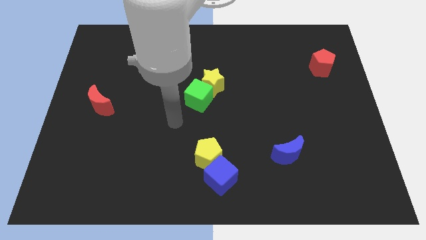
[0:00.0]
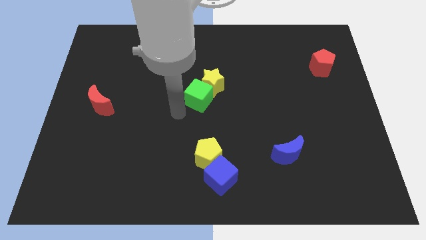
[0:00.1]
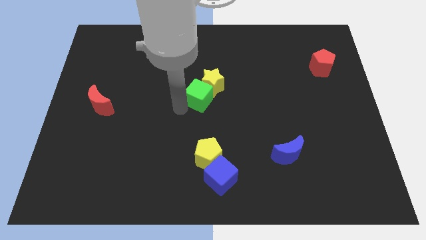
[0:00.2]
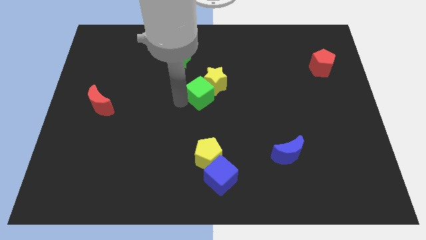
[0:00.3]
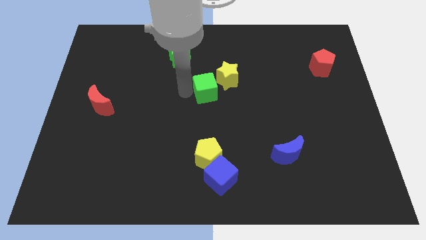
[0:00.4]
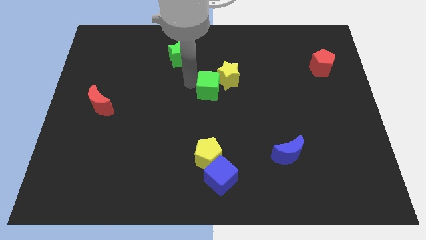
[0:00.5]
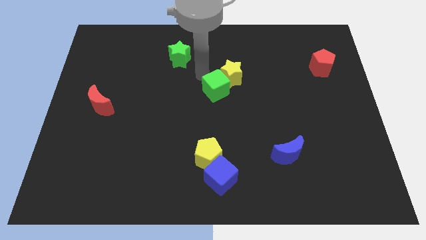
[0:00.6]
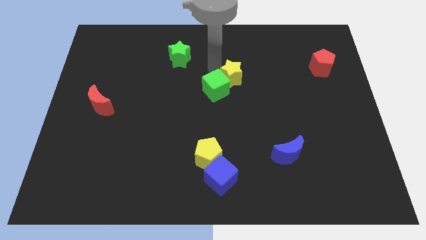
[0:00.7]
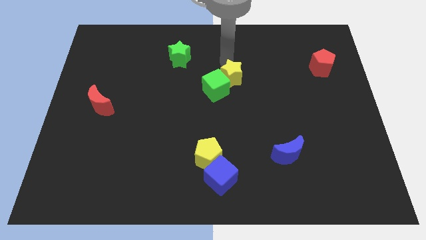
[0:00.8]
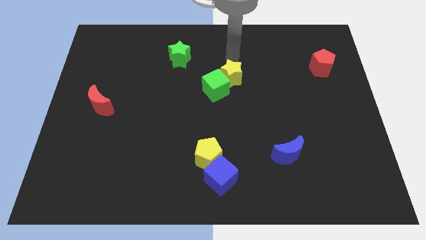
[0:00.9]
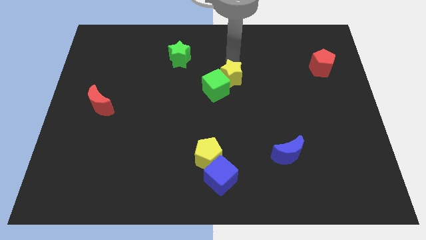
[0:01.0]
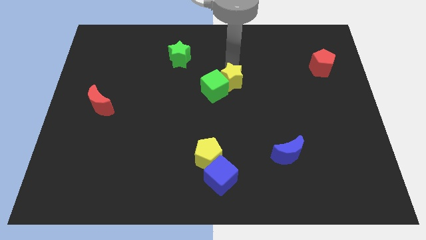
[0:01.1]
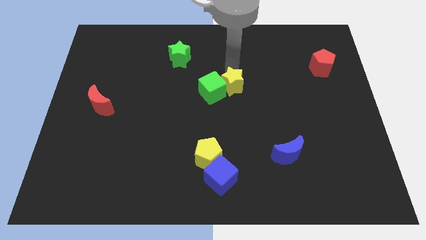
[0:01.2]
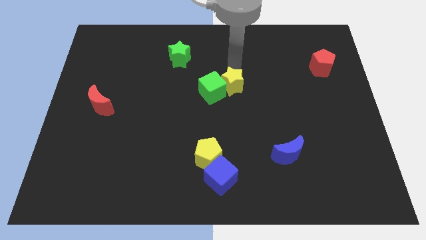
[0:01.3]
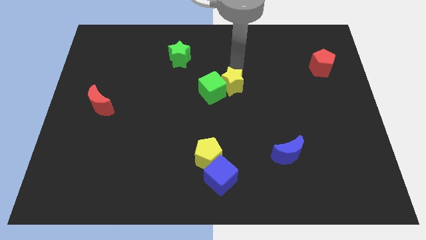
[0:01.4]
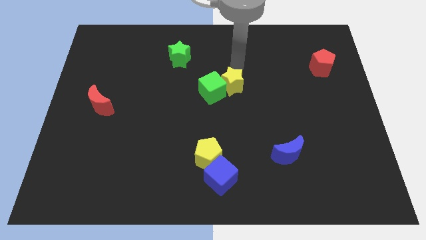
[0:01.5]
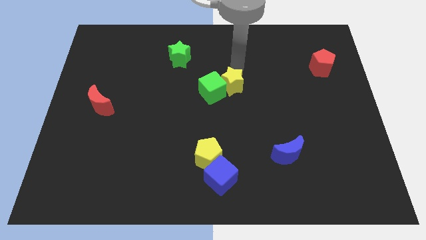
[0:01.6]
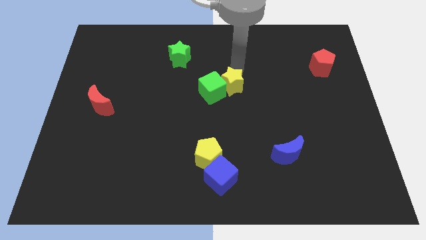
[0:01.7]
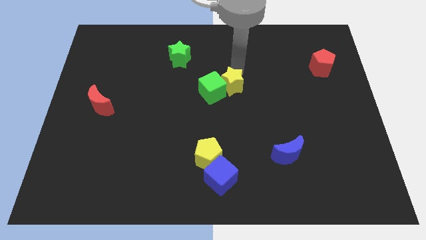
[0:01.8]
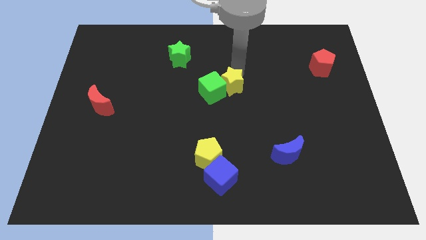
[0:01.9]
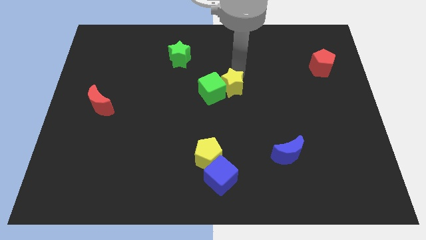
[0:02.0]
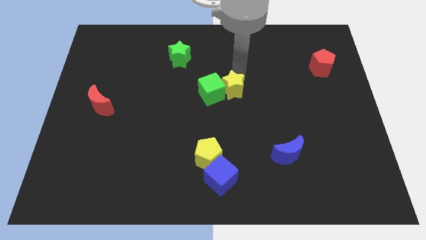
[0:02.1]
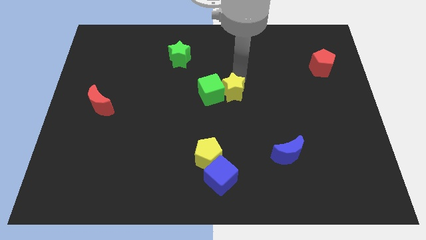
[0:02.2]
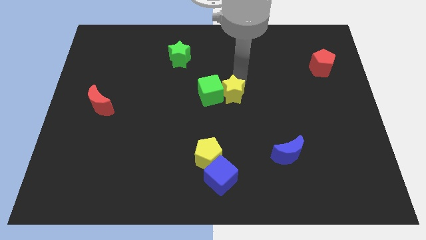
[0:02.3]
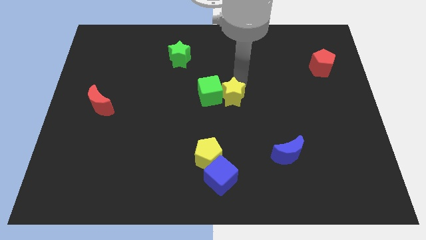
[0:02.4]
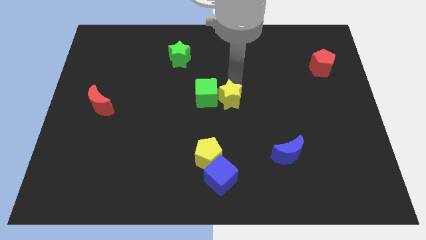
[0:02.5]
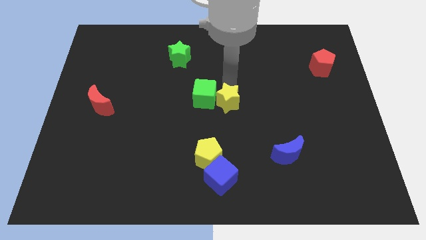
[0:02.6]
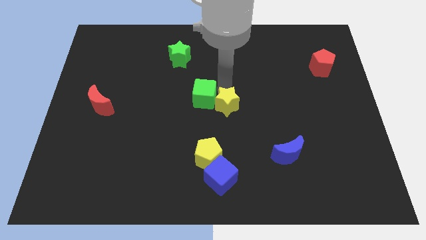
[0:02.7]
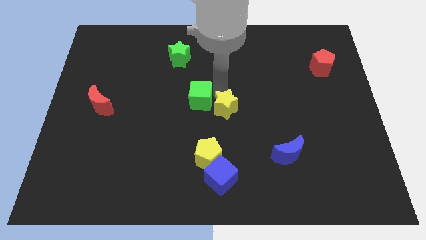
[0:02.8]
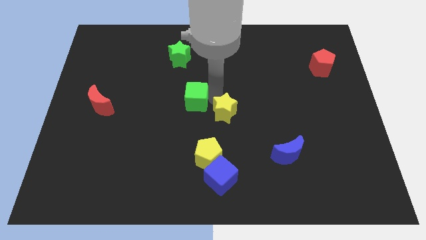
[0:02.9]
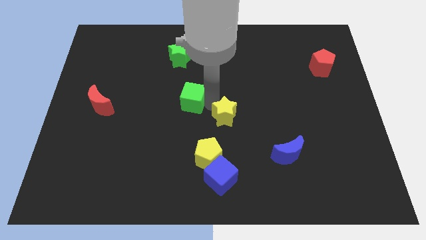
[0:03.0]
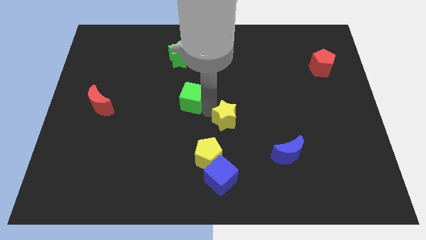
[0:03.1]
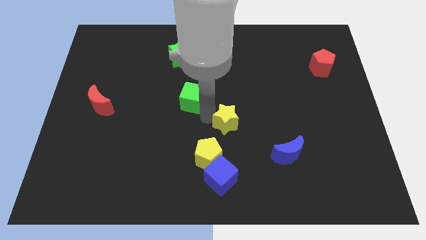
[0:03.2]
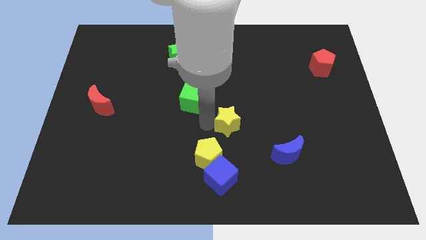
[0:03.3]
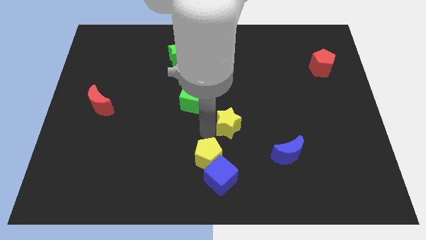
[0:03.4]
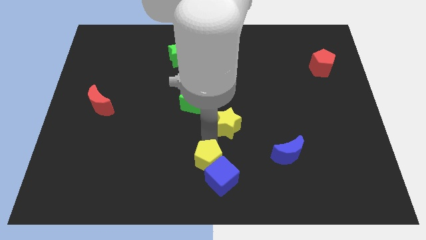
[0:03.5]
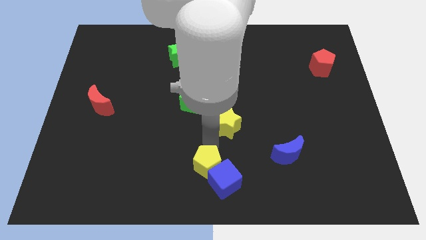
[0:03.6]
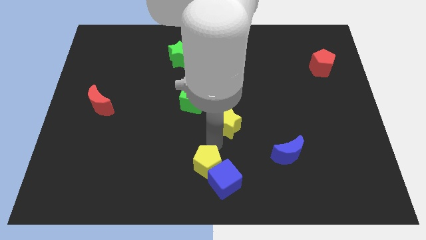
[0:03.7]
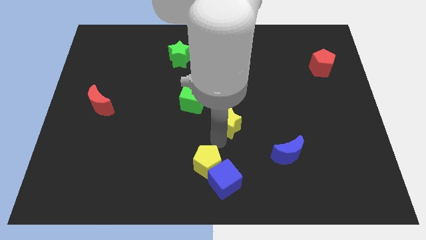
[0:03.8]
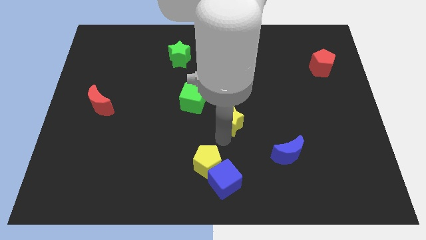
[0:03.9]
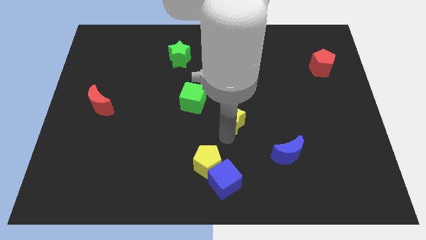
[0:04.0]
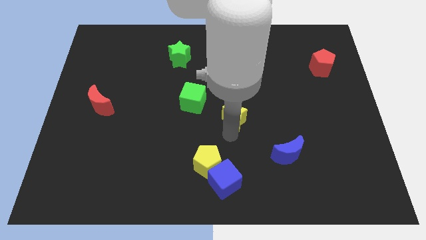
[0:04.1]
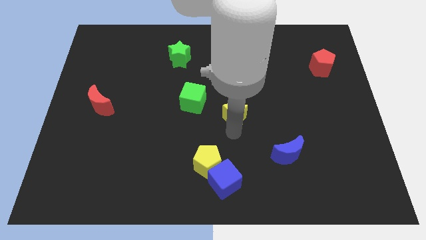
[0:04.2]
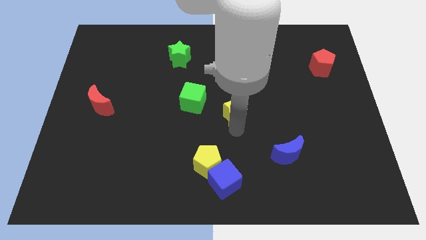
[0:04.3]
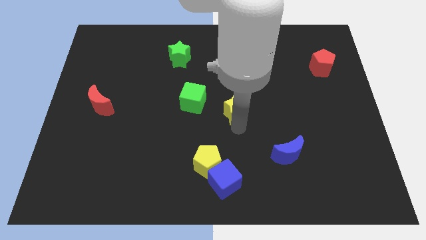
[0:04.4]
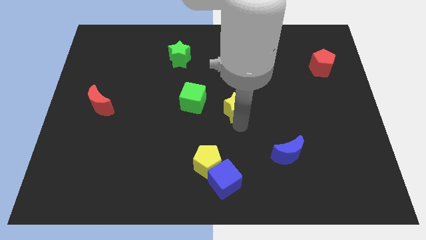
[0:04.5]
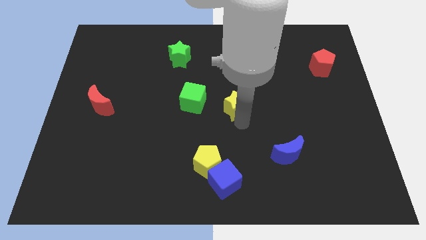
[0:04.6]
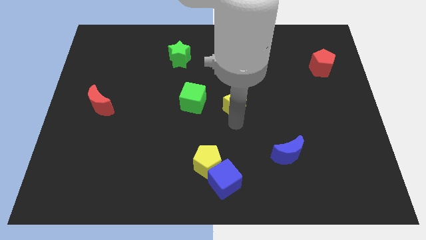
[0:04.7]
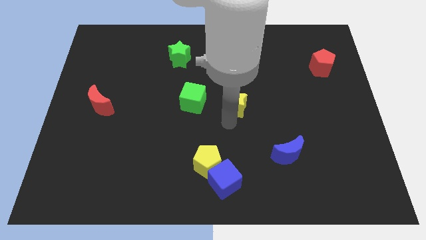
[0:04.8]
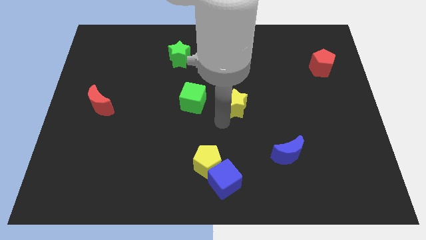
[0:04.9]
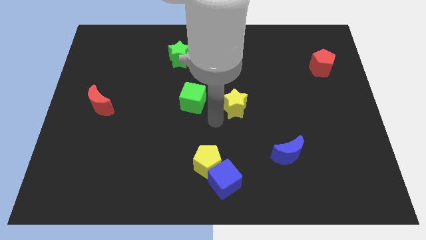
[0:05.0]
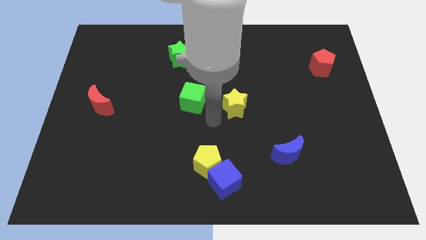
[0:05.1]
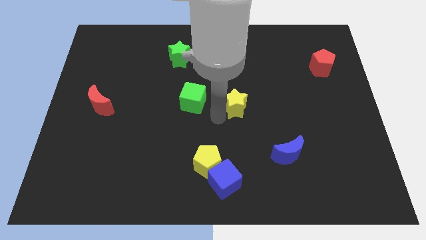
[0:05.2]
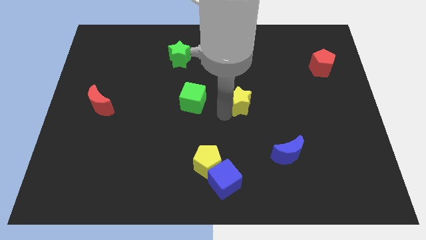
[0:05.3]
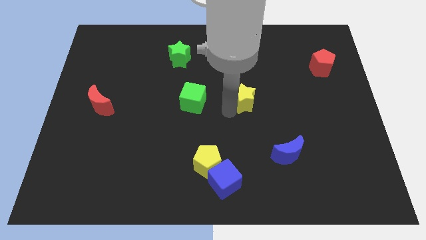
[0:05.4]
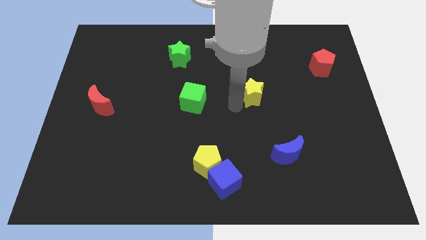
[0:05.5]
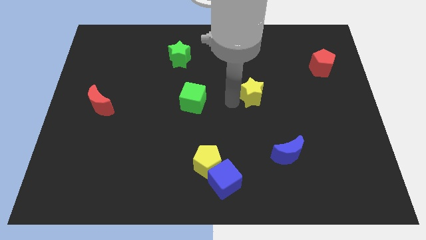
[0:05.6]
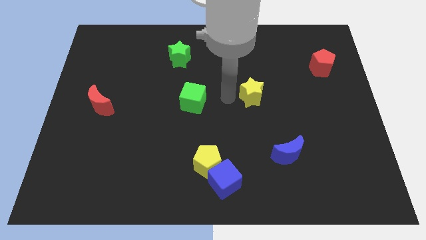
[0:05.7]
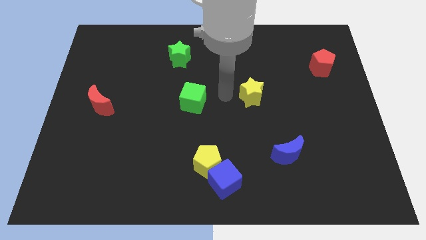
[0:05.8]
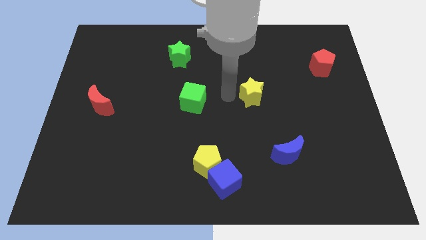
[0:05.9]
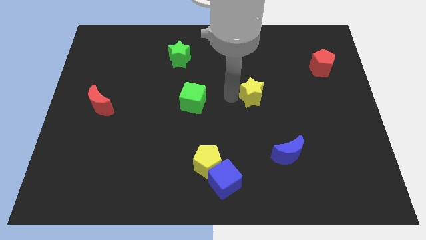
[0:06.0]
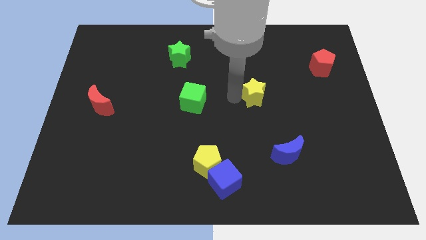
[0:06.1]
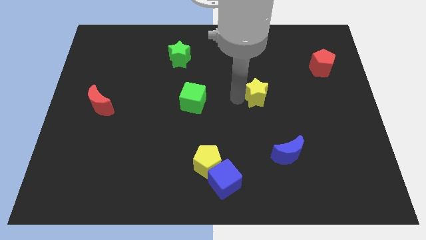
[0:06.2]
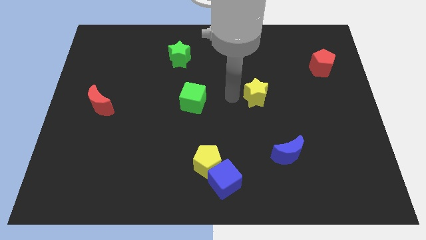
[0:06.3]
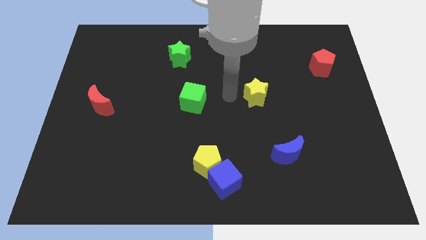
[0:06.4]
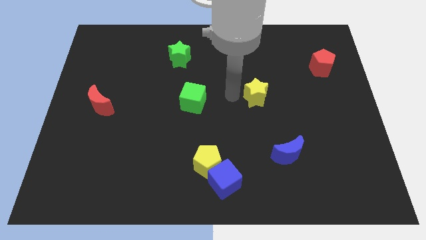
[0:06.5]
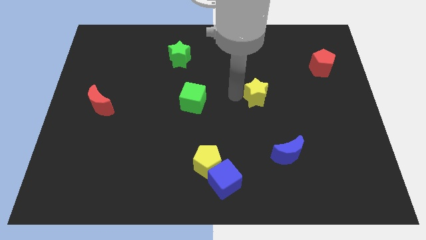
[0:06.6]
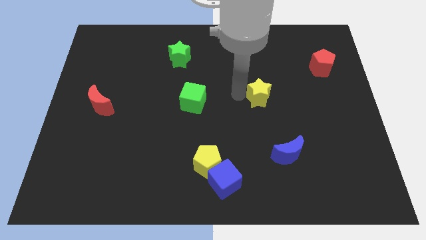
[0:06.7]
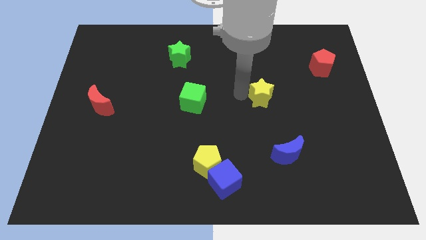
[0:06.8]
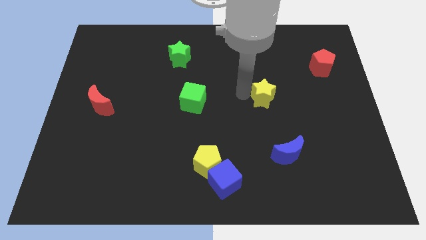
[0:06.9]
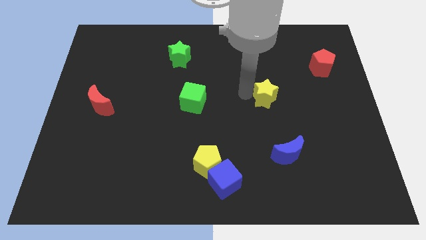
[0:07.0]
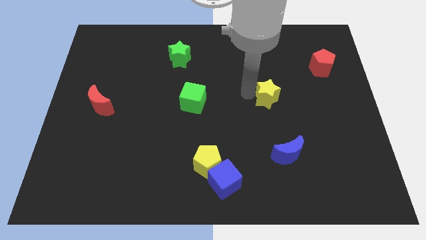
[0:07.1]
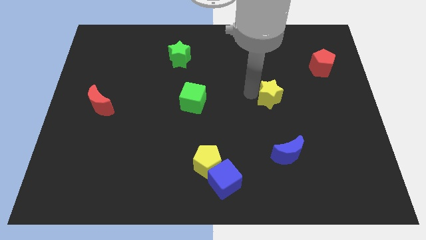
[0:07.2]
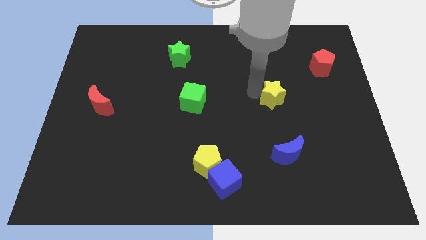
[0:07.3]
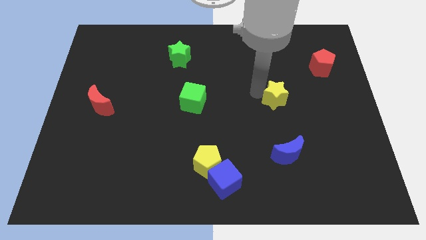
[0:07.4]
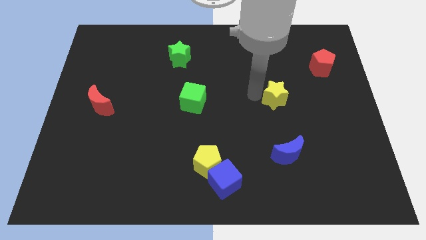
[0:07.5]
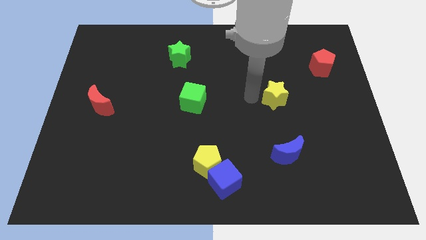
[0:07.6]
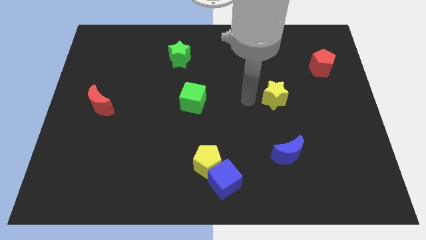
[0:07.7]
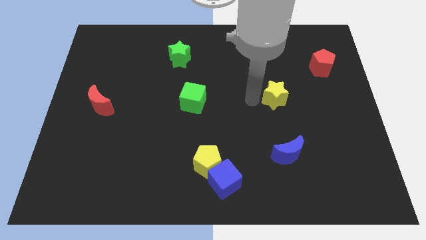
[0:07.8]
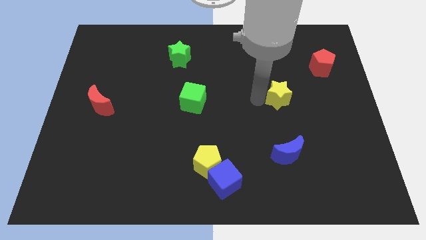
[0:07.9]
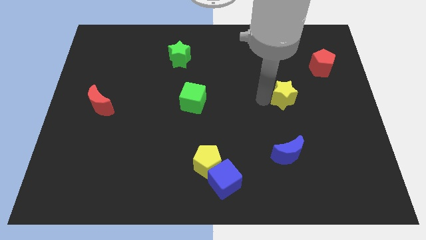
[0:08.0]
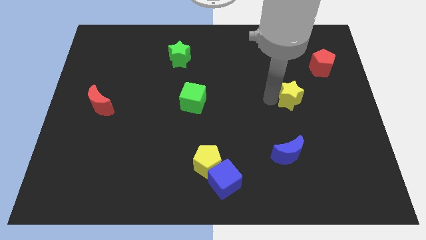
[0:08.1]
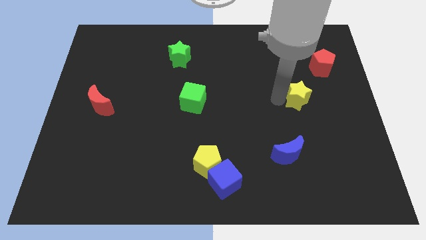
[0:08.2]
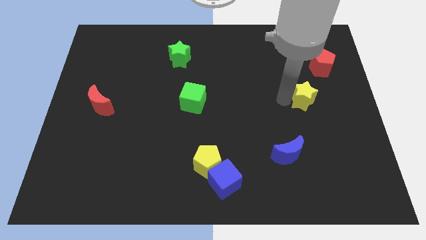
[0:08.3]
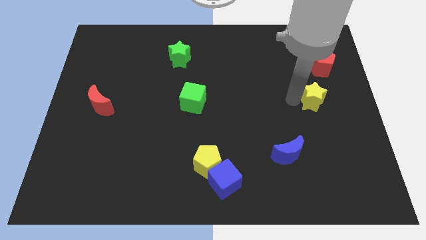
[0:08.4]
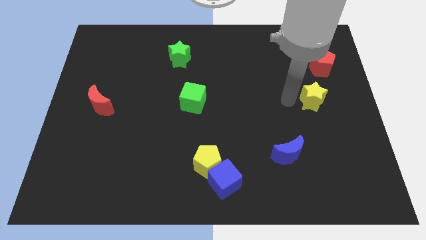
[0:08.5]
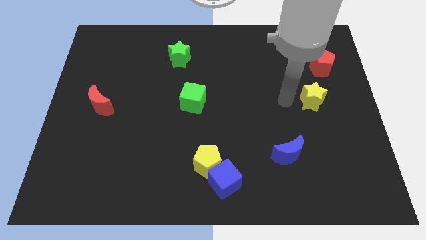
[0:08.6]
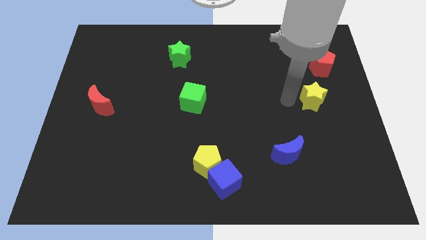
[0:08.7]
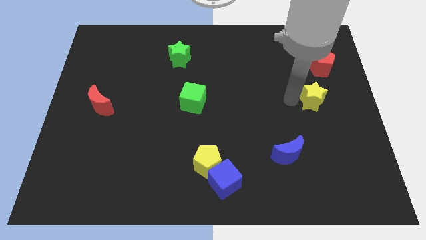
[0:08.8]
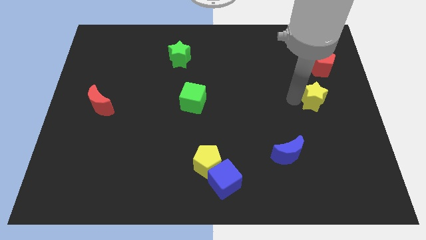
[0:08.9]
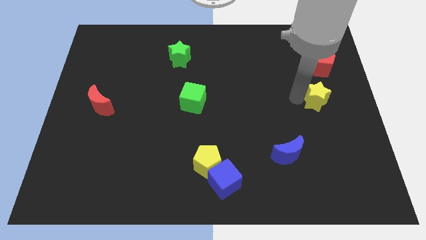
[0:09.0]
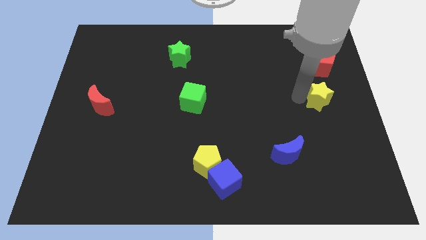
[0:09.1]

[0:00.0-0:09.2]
put the yellow star to the right side
